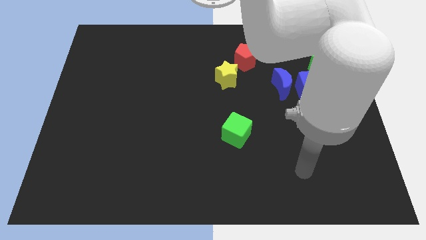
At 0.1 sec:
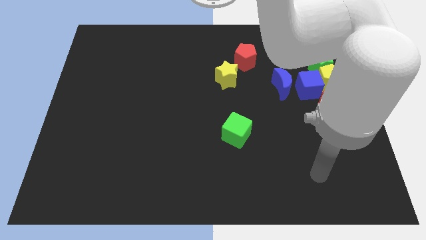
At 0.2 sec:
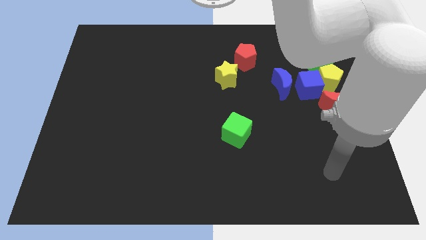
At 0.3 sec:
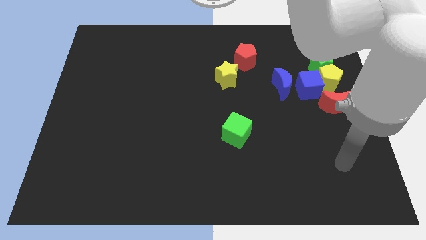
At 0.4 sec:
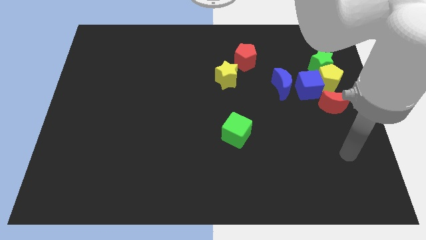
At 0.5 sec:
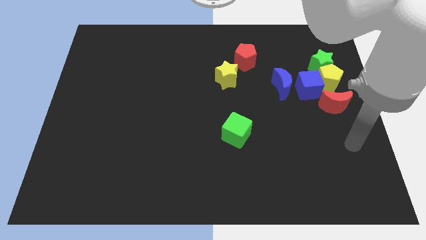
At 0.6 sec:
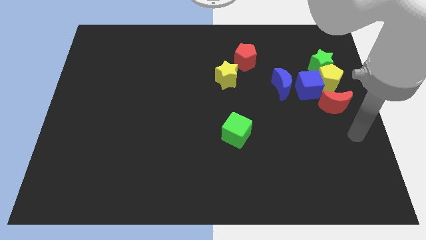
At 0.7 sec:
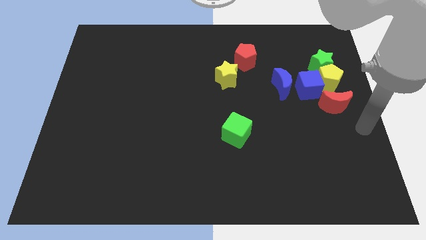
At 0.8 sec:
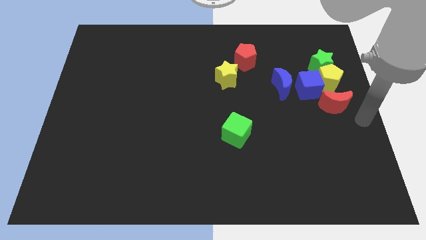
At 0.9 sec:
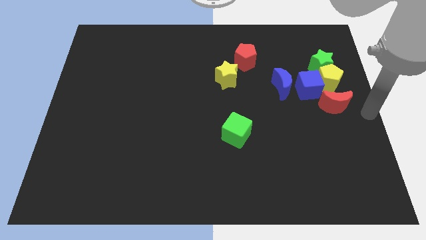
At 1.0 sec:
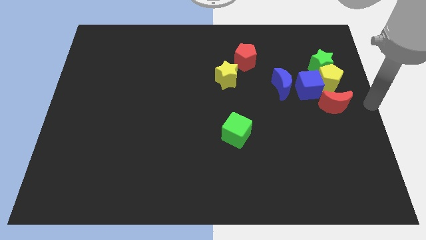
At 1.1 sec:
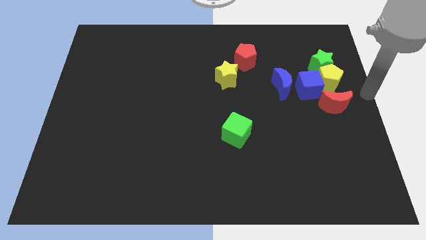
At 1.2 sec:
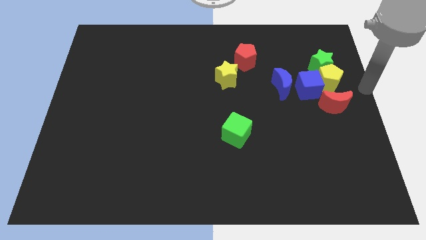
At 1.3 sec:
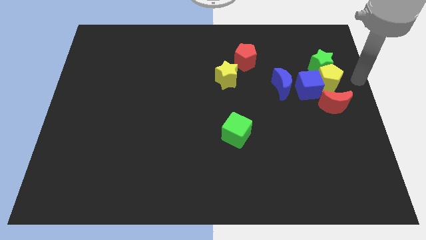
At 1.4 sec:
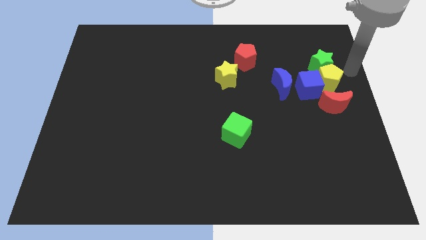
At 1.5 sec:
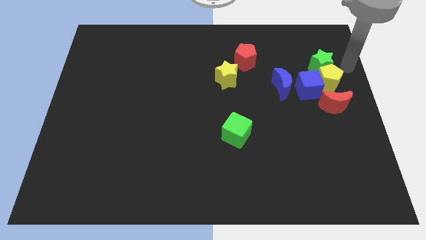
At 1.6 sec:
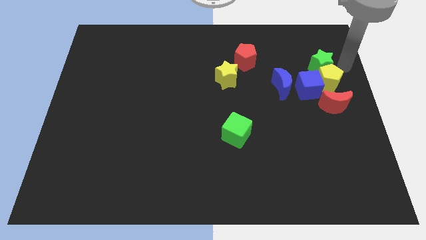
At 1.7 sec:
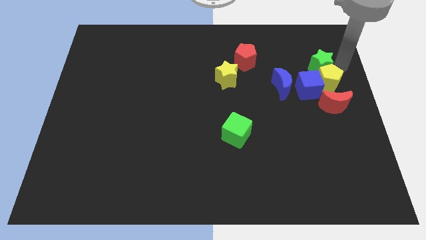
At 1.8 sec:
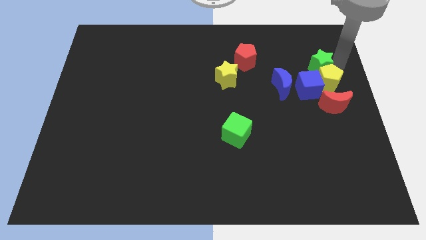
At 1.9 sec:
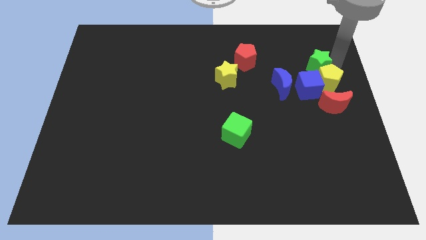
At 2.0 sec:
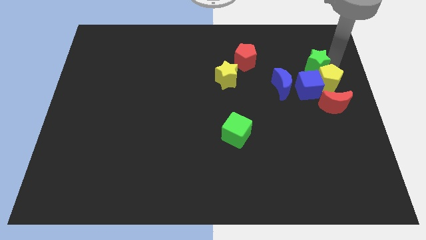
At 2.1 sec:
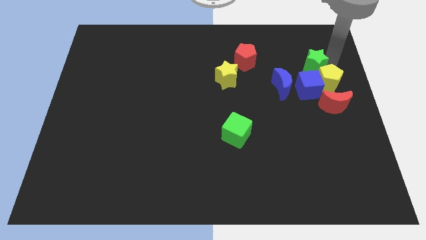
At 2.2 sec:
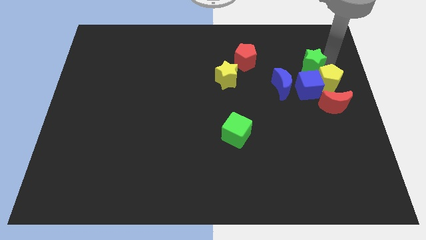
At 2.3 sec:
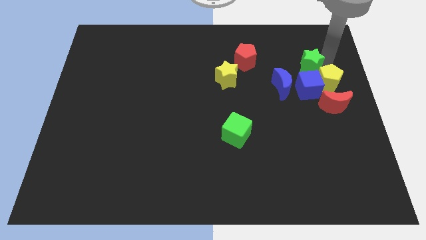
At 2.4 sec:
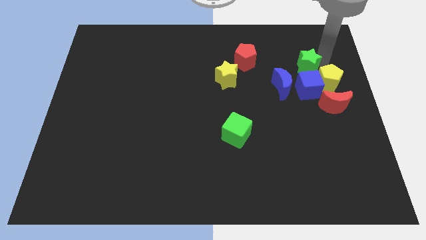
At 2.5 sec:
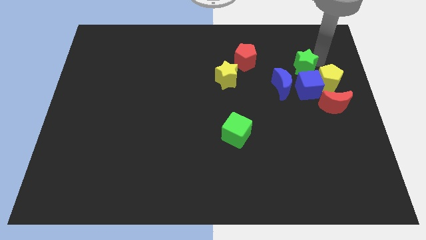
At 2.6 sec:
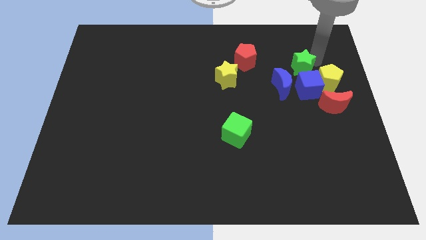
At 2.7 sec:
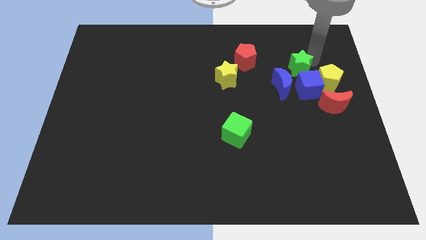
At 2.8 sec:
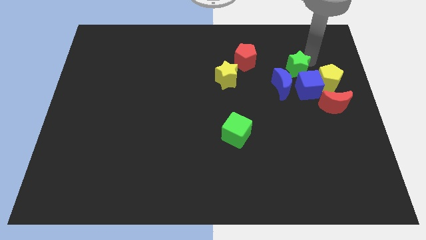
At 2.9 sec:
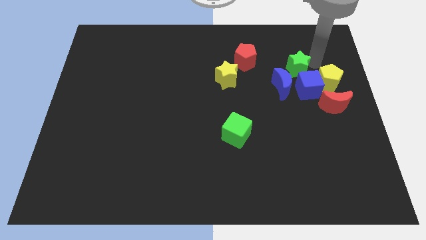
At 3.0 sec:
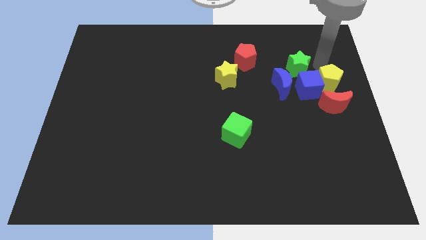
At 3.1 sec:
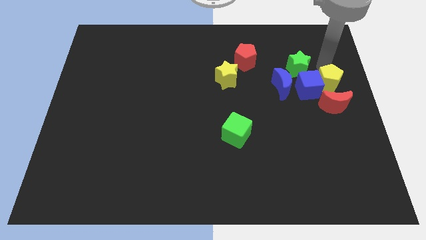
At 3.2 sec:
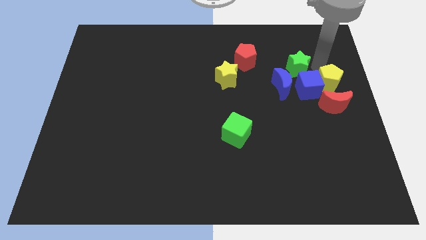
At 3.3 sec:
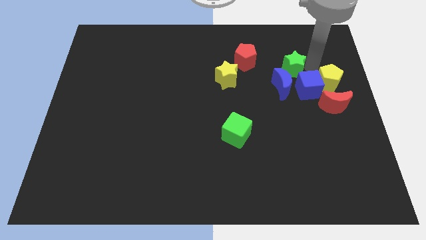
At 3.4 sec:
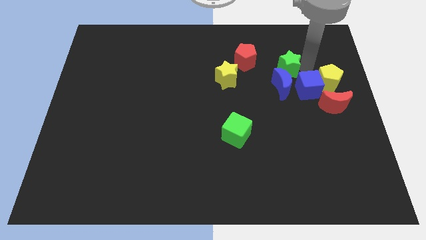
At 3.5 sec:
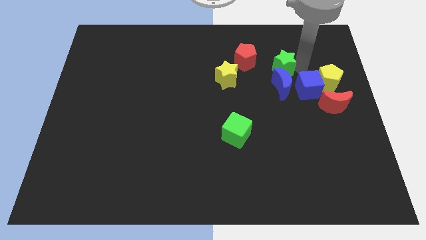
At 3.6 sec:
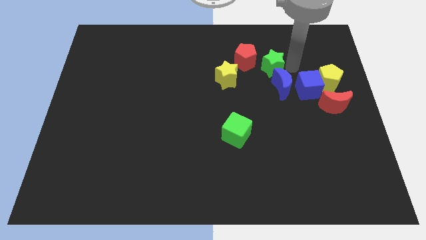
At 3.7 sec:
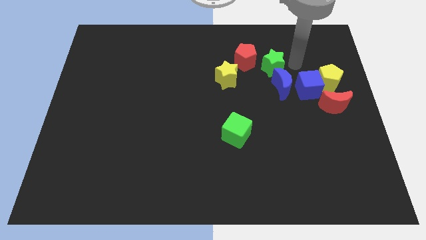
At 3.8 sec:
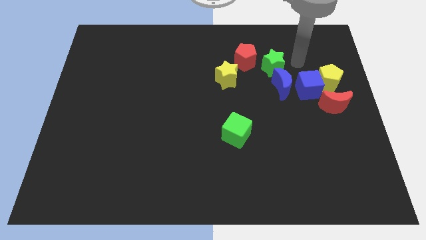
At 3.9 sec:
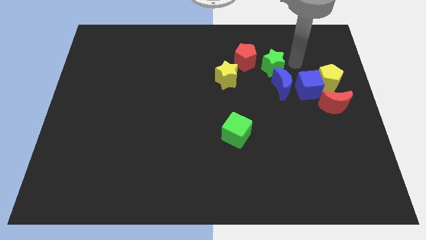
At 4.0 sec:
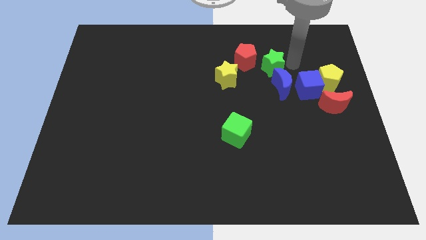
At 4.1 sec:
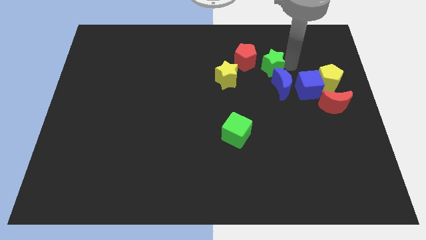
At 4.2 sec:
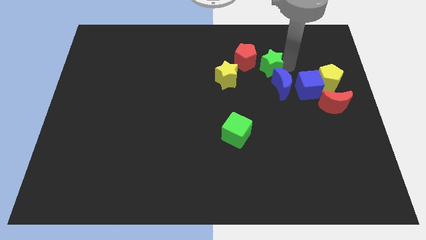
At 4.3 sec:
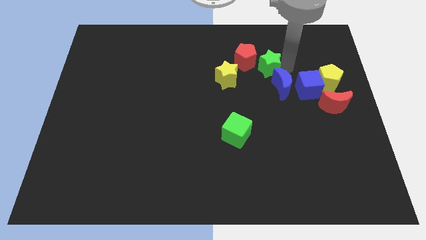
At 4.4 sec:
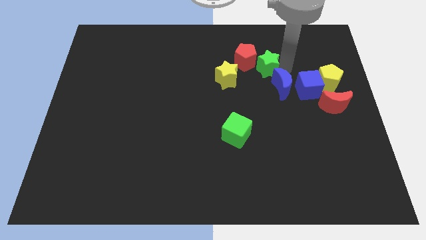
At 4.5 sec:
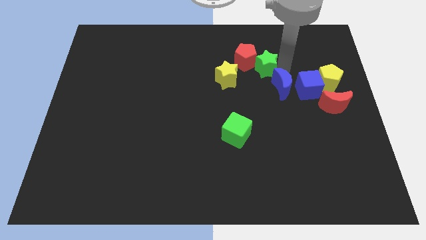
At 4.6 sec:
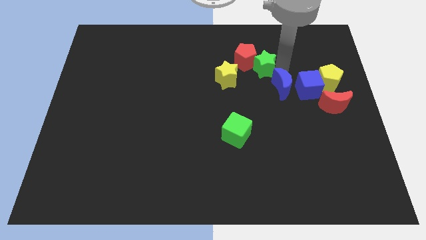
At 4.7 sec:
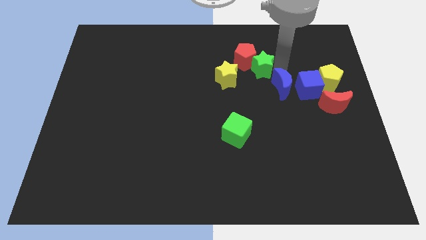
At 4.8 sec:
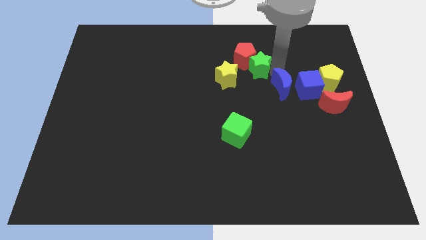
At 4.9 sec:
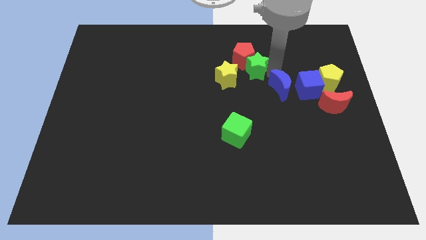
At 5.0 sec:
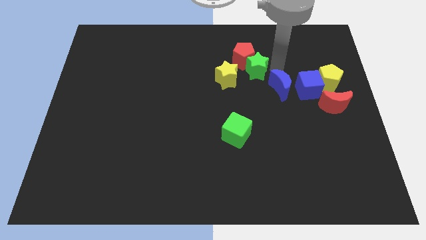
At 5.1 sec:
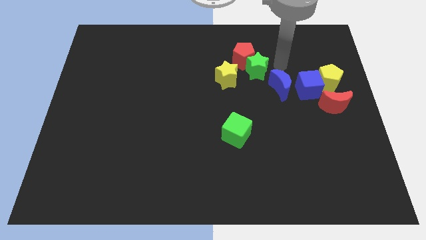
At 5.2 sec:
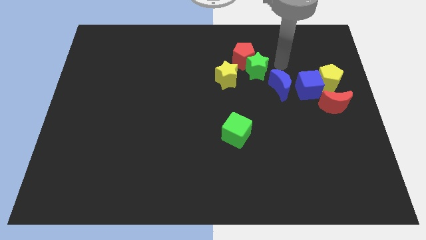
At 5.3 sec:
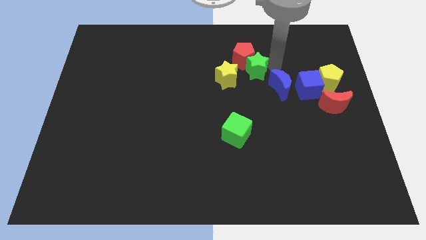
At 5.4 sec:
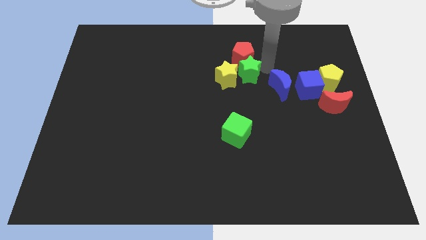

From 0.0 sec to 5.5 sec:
move the green star towards the yellow star

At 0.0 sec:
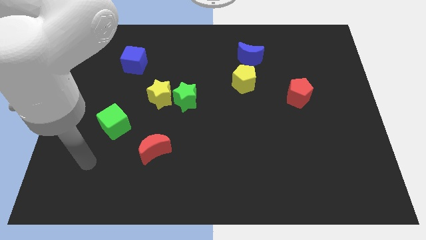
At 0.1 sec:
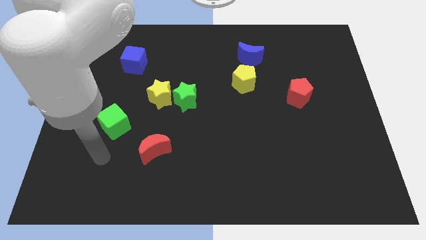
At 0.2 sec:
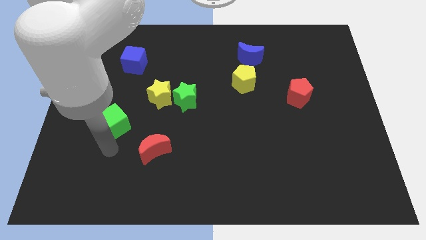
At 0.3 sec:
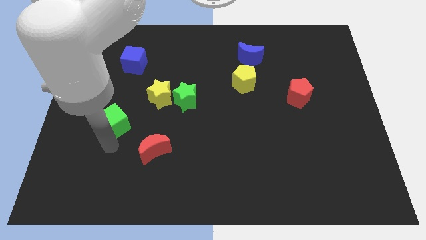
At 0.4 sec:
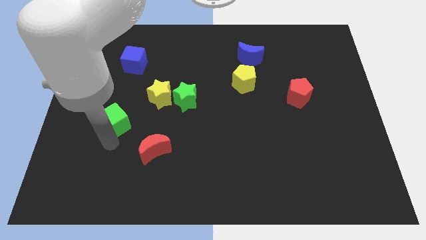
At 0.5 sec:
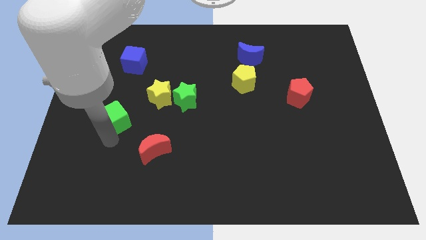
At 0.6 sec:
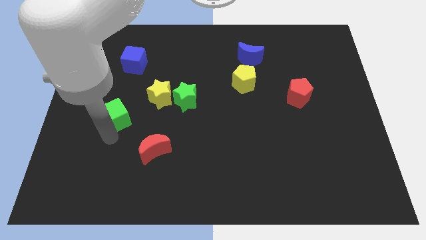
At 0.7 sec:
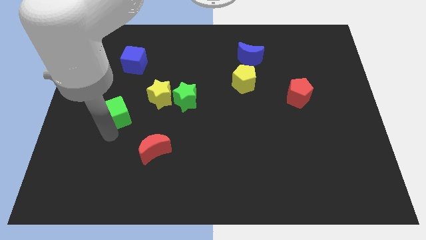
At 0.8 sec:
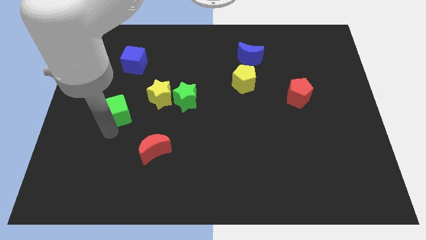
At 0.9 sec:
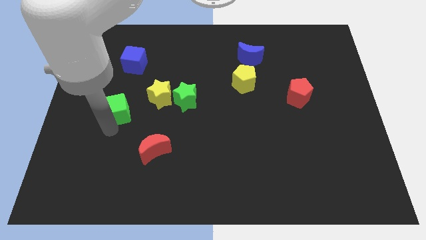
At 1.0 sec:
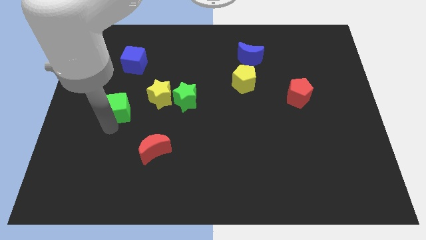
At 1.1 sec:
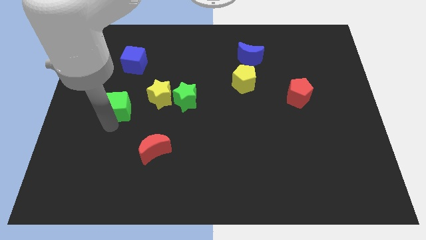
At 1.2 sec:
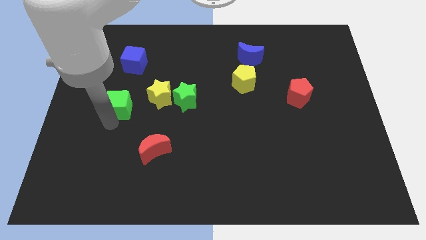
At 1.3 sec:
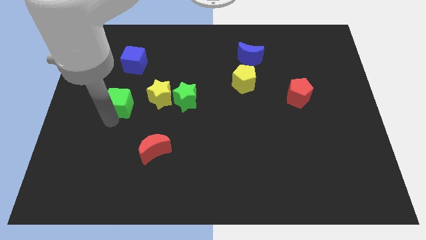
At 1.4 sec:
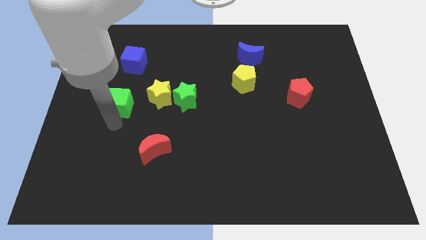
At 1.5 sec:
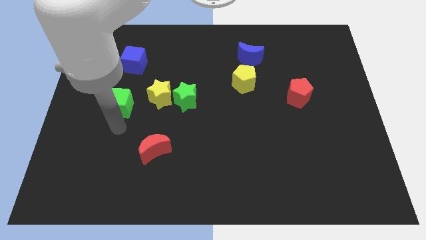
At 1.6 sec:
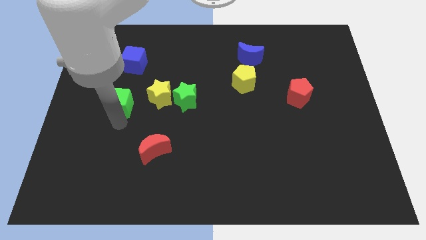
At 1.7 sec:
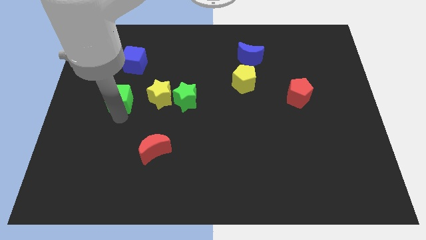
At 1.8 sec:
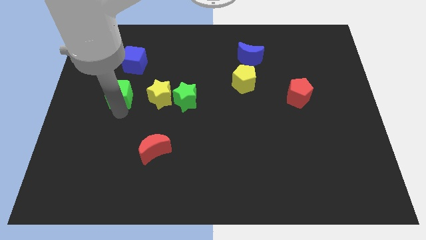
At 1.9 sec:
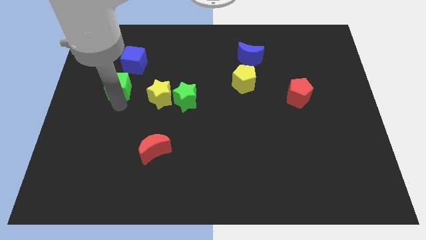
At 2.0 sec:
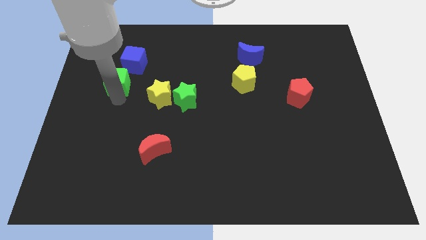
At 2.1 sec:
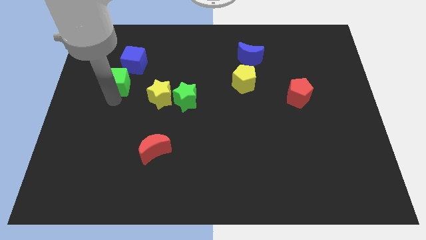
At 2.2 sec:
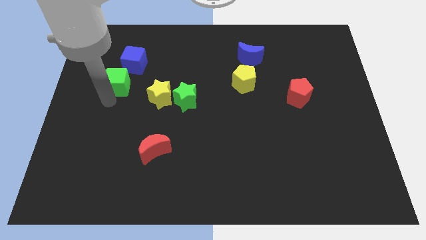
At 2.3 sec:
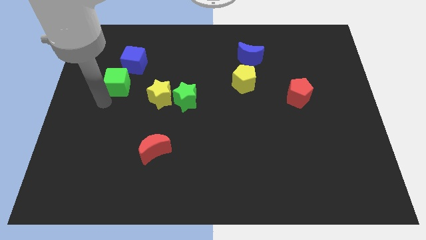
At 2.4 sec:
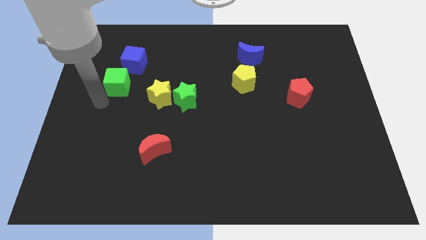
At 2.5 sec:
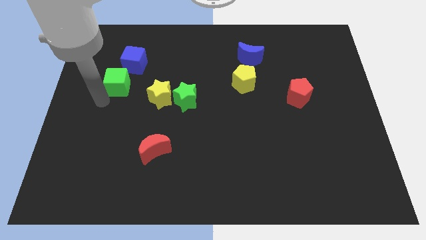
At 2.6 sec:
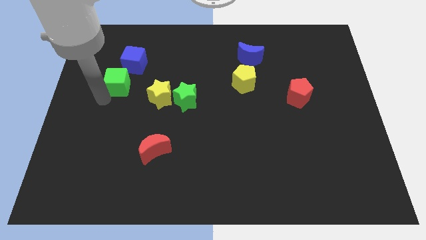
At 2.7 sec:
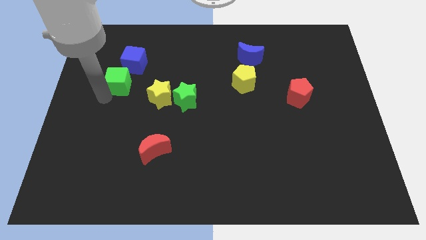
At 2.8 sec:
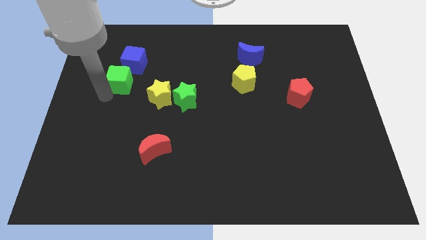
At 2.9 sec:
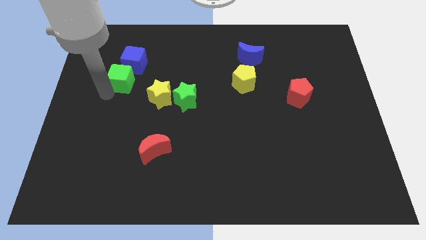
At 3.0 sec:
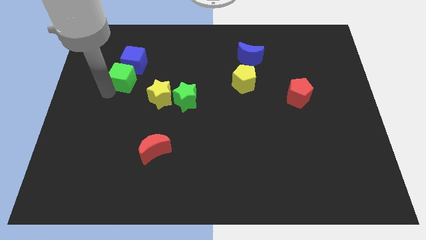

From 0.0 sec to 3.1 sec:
put the green cube to the blue cube
